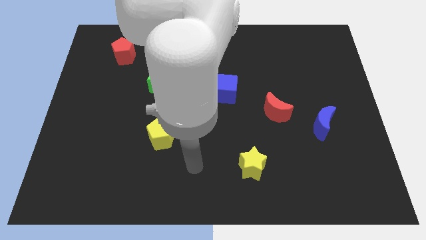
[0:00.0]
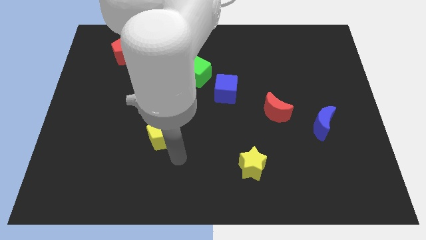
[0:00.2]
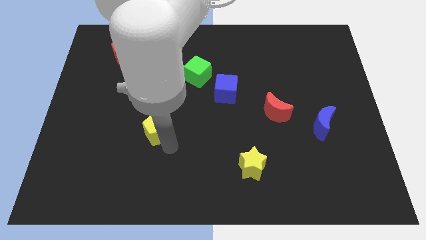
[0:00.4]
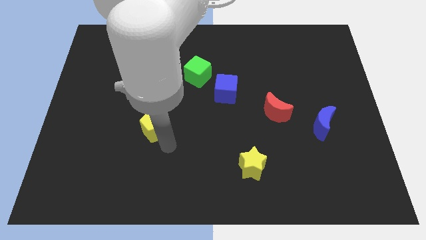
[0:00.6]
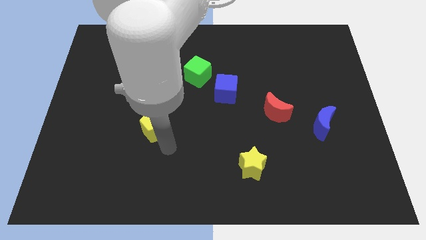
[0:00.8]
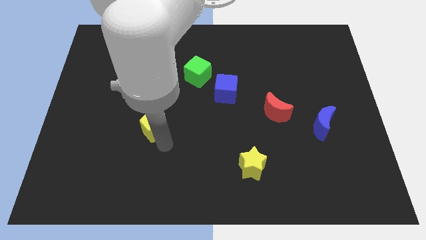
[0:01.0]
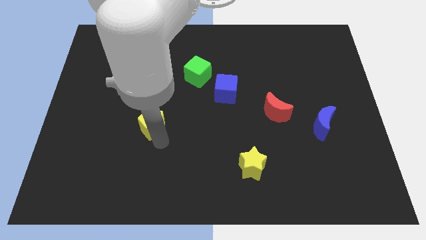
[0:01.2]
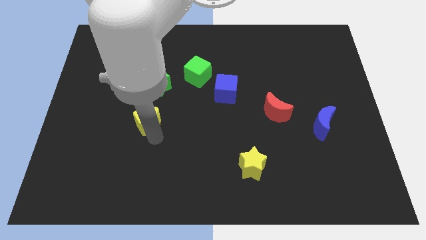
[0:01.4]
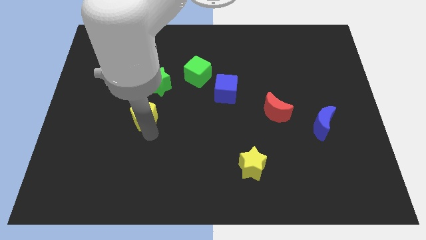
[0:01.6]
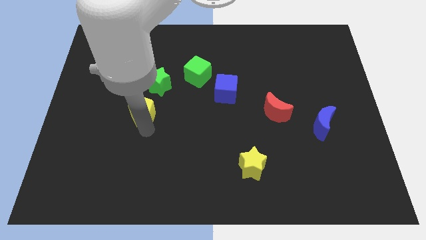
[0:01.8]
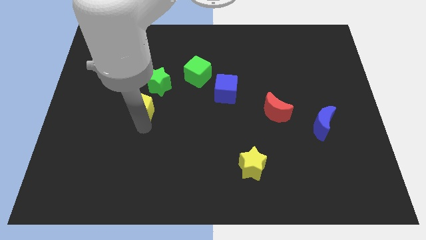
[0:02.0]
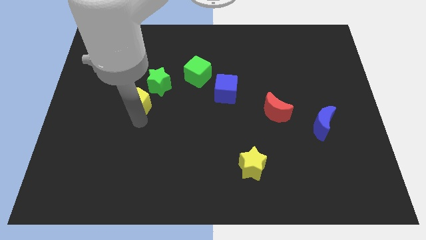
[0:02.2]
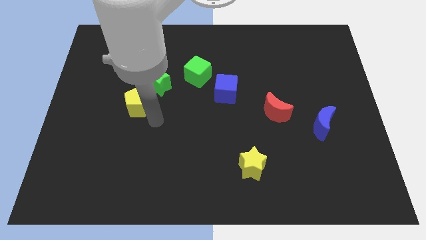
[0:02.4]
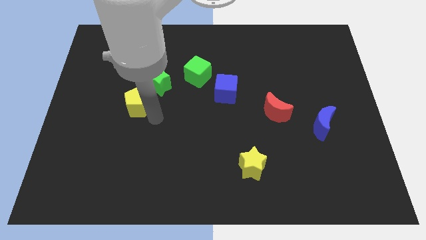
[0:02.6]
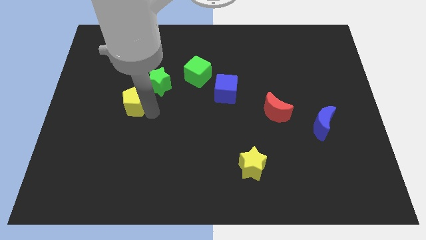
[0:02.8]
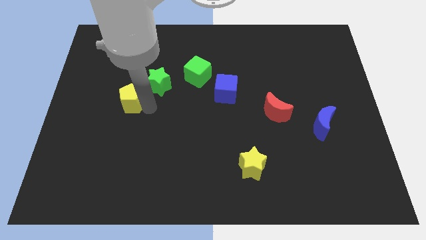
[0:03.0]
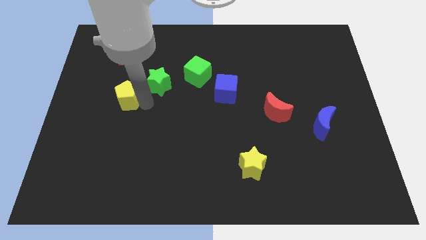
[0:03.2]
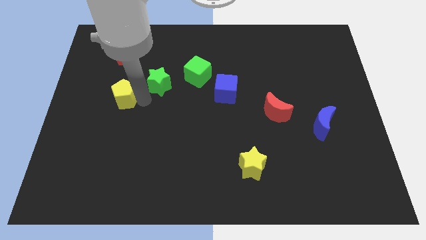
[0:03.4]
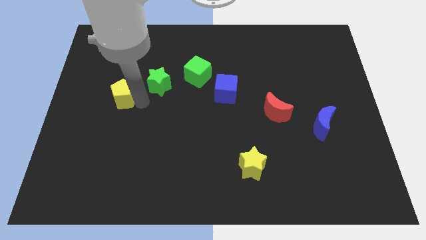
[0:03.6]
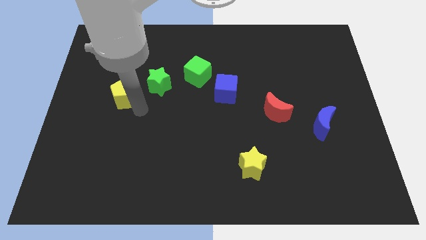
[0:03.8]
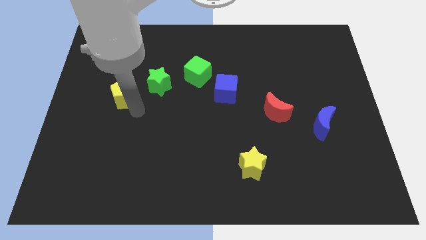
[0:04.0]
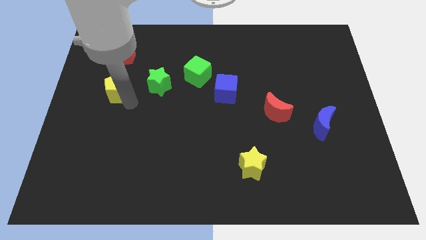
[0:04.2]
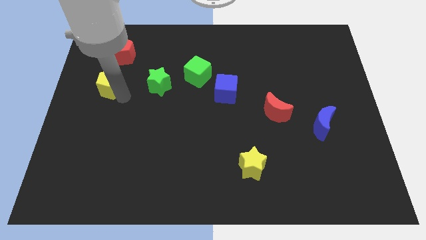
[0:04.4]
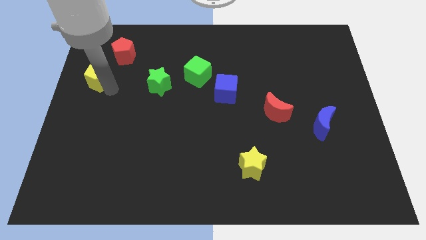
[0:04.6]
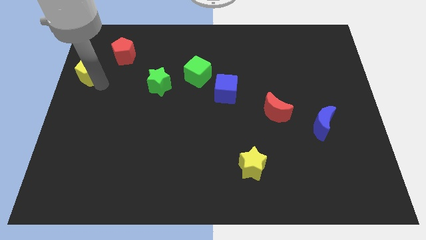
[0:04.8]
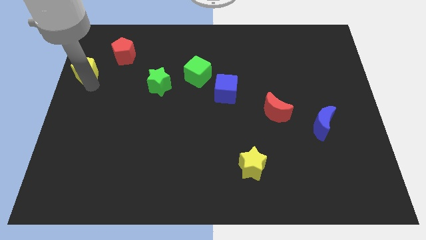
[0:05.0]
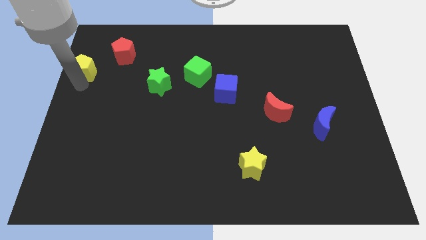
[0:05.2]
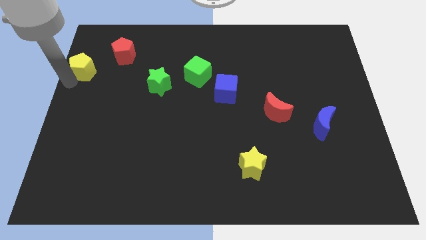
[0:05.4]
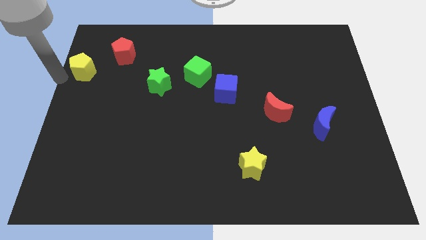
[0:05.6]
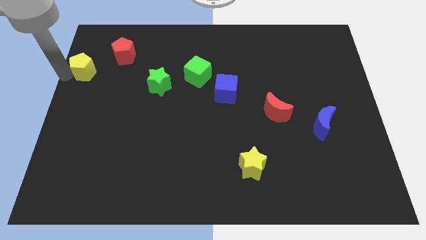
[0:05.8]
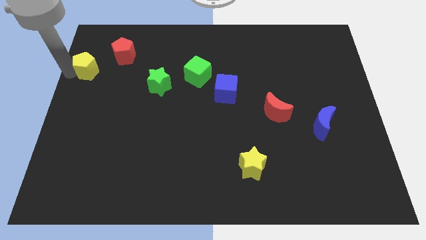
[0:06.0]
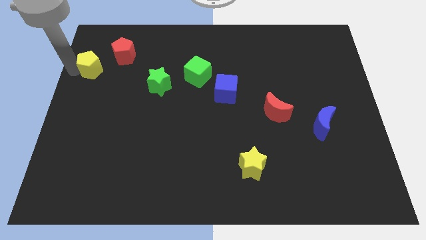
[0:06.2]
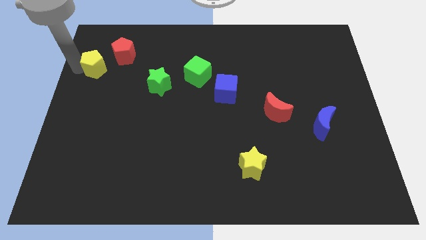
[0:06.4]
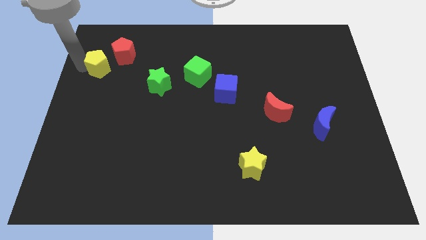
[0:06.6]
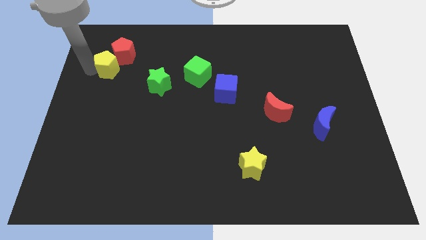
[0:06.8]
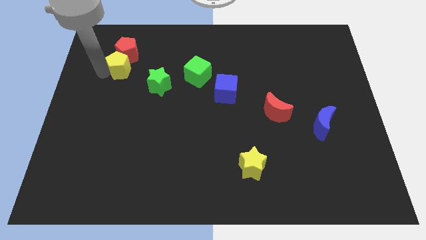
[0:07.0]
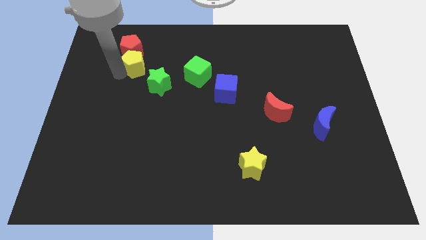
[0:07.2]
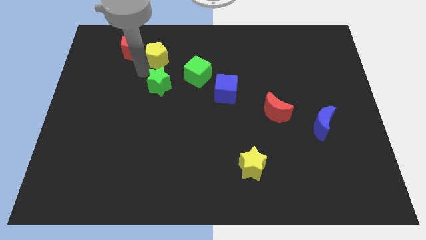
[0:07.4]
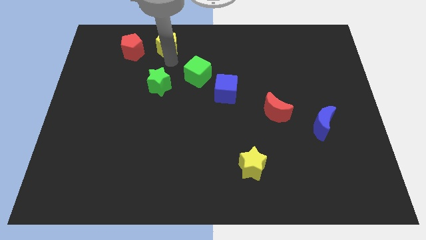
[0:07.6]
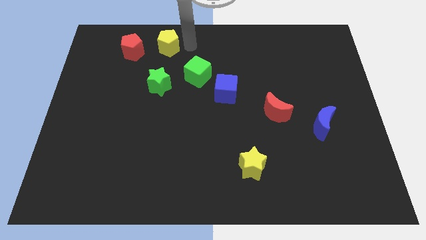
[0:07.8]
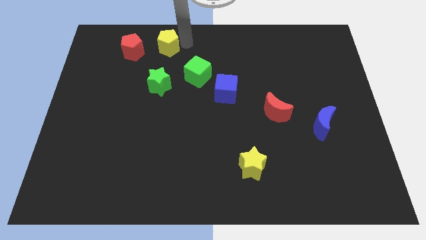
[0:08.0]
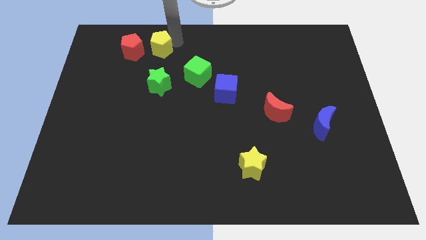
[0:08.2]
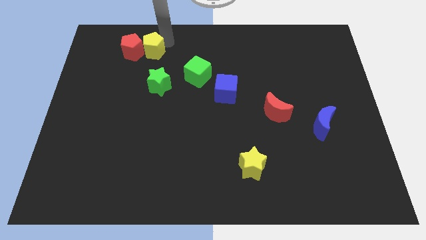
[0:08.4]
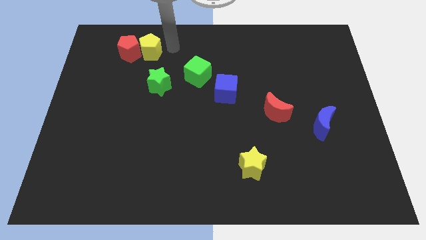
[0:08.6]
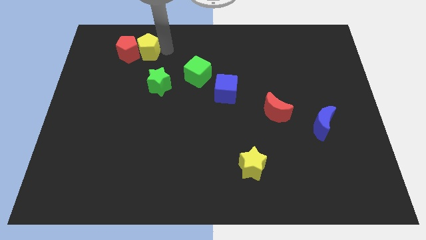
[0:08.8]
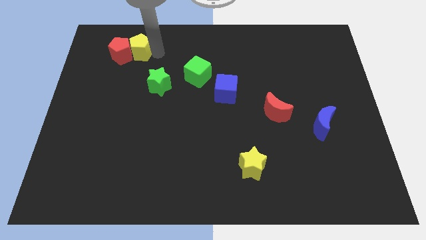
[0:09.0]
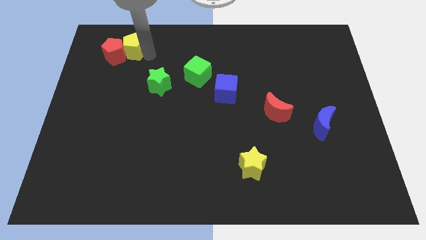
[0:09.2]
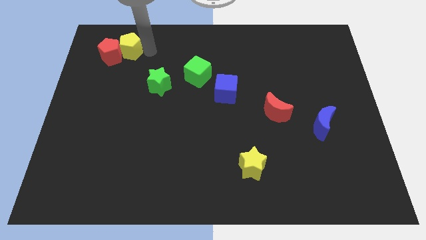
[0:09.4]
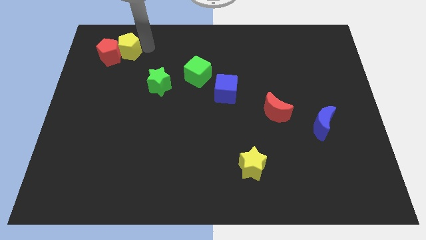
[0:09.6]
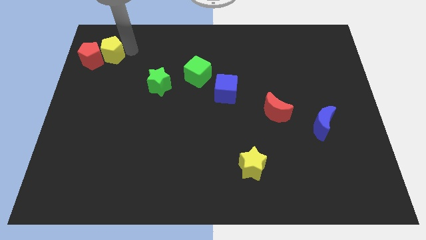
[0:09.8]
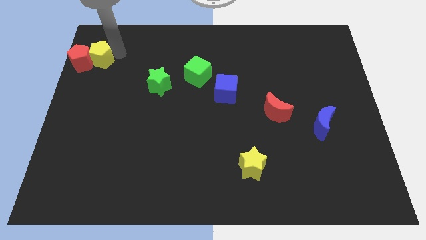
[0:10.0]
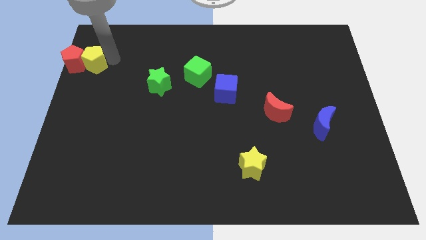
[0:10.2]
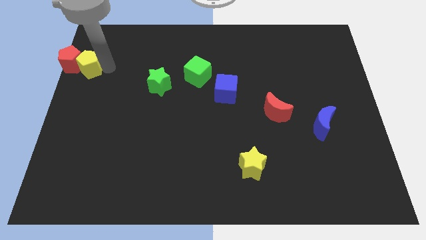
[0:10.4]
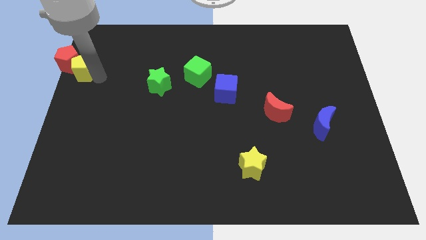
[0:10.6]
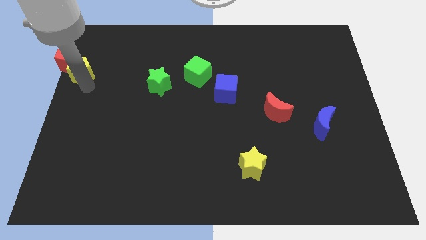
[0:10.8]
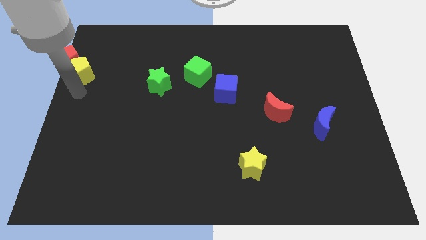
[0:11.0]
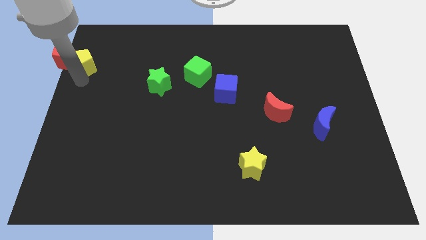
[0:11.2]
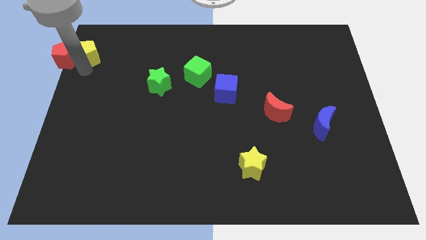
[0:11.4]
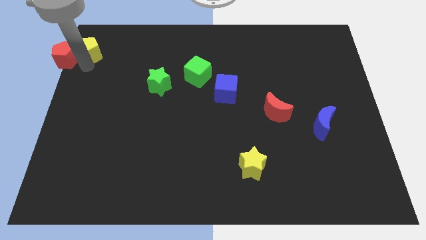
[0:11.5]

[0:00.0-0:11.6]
slide the yellow pentagon to the upper left corner
